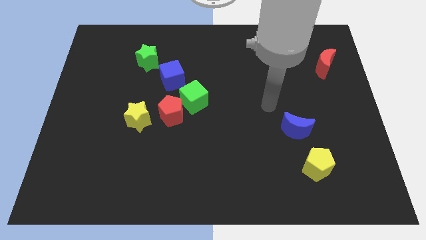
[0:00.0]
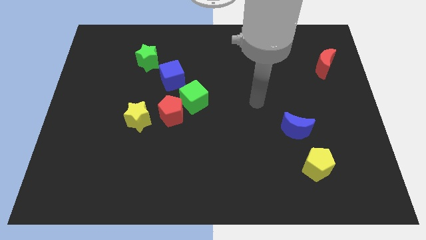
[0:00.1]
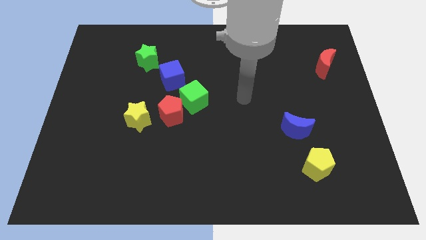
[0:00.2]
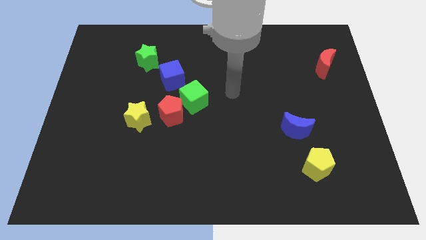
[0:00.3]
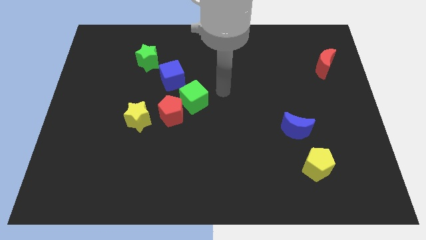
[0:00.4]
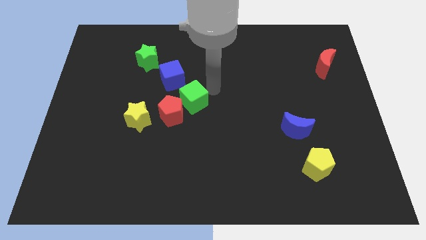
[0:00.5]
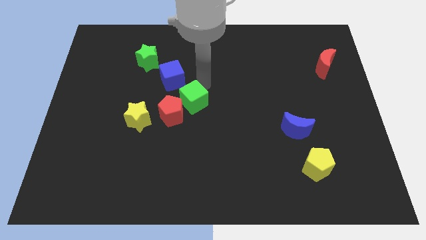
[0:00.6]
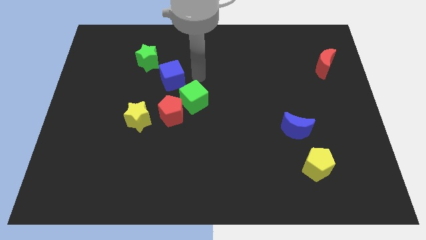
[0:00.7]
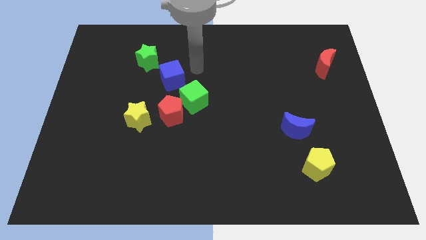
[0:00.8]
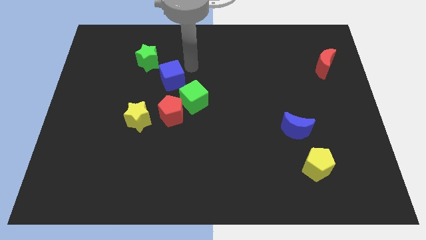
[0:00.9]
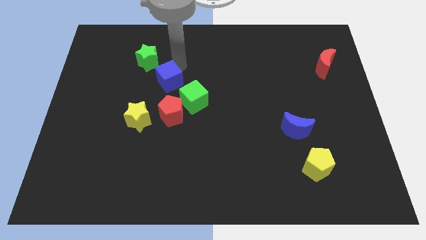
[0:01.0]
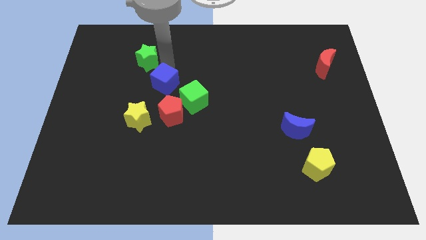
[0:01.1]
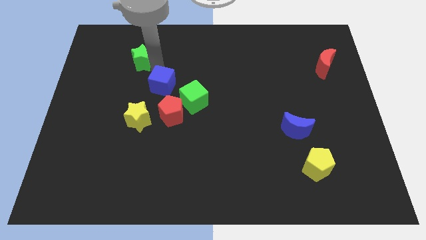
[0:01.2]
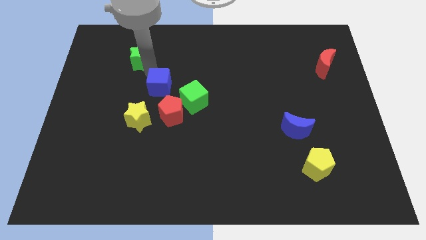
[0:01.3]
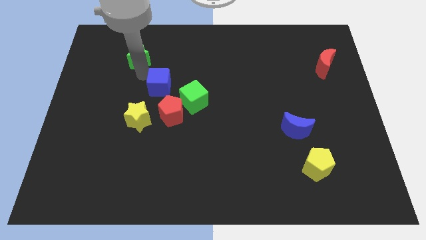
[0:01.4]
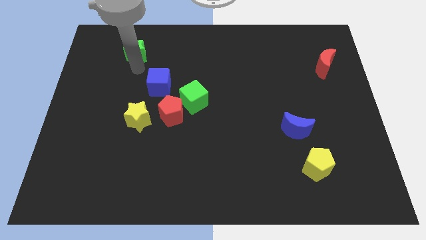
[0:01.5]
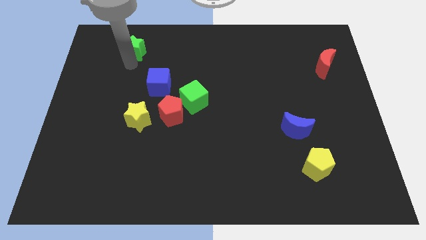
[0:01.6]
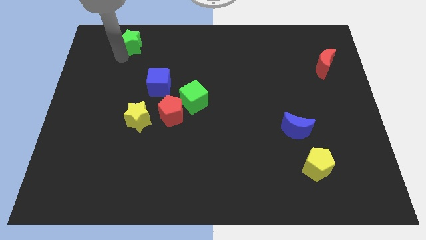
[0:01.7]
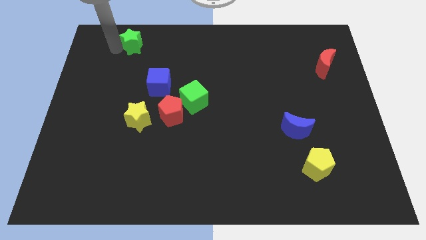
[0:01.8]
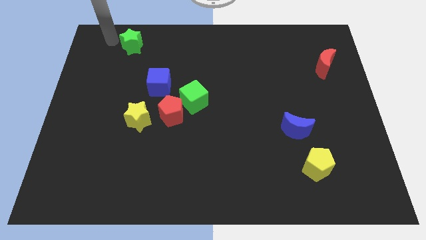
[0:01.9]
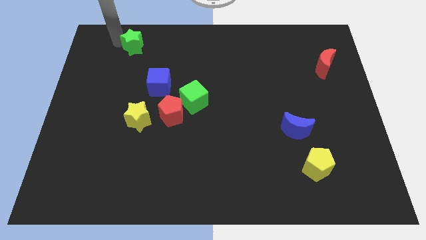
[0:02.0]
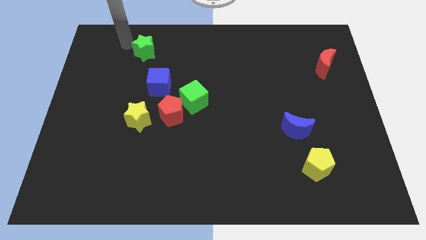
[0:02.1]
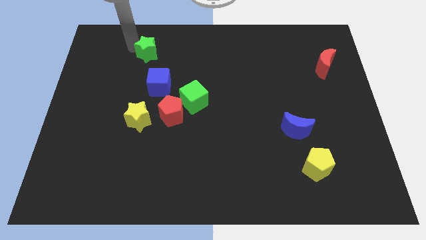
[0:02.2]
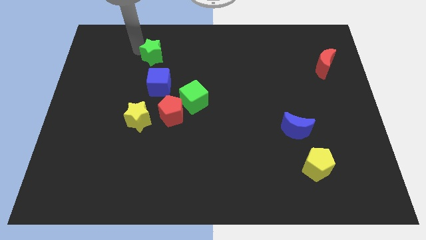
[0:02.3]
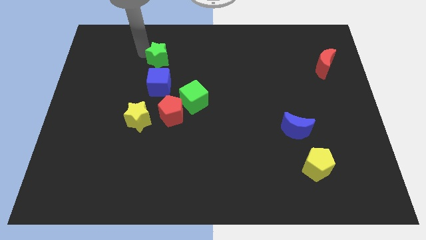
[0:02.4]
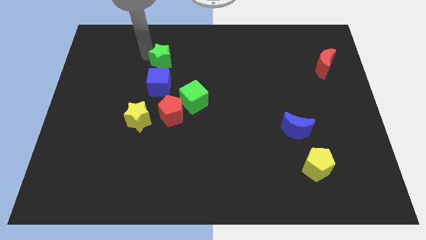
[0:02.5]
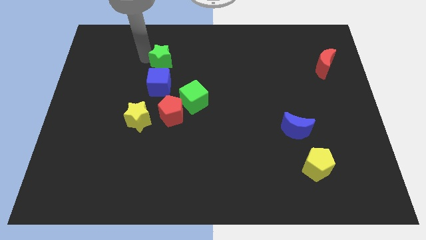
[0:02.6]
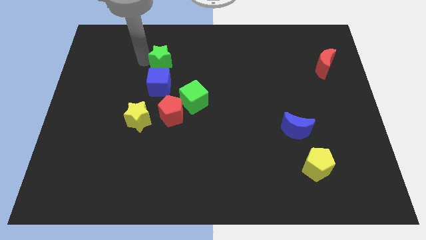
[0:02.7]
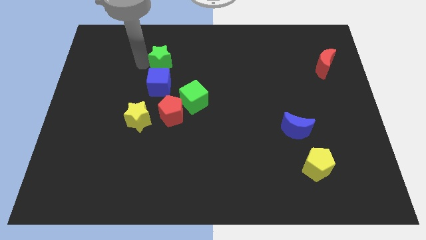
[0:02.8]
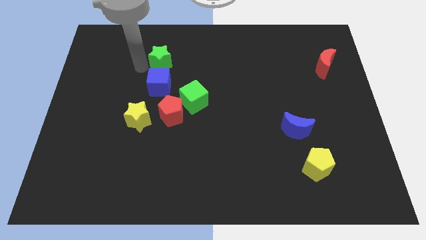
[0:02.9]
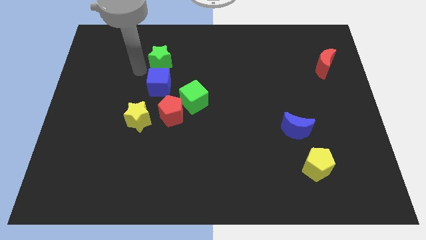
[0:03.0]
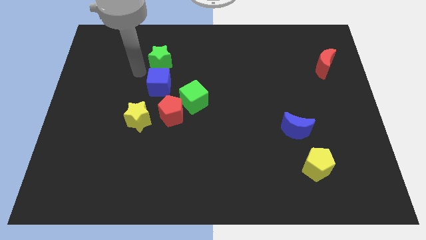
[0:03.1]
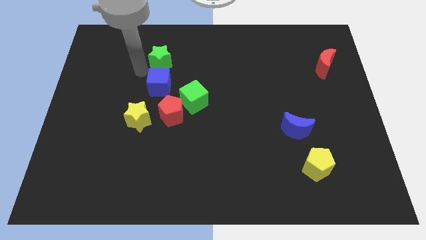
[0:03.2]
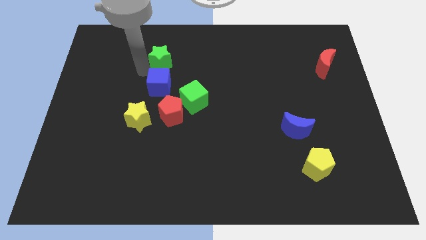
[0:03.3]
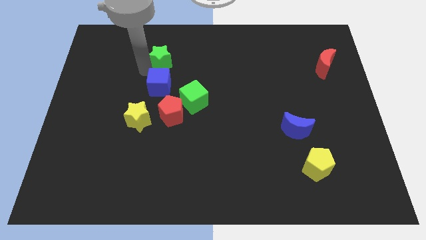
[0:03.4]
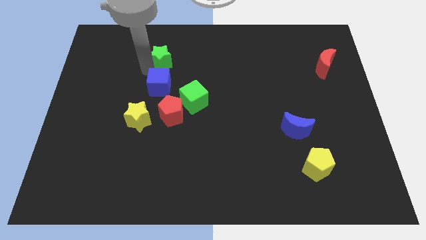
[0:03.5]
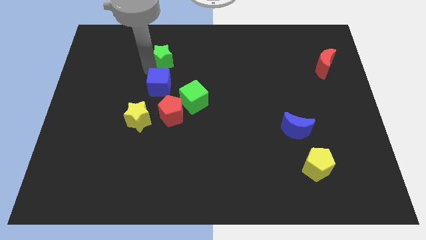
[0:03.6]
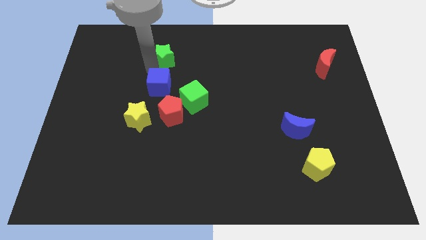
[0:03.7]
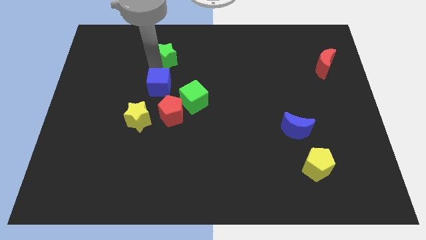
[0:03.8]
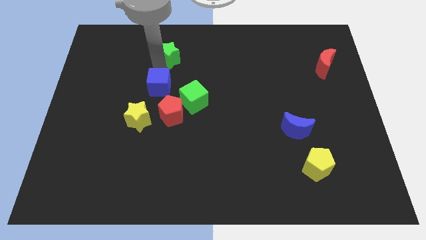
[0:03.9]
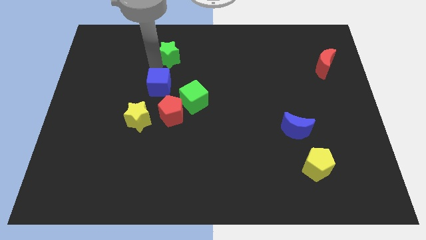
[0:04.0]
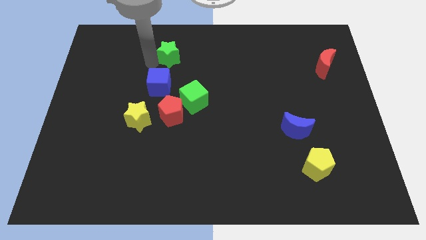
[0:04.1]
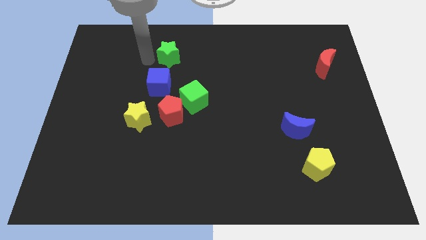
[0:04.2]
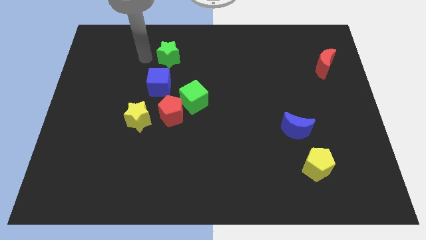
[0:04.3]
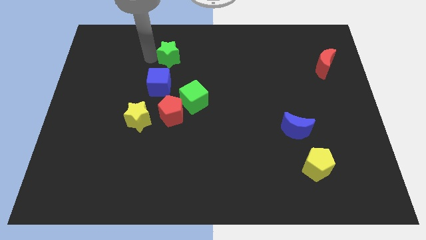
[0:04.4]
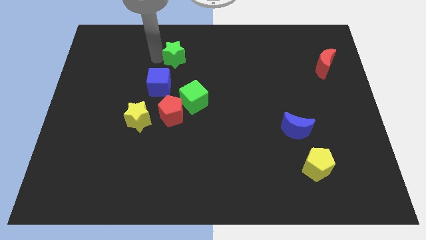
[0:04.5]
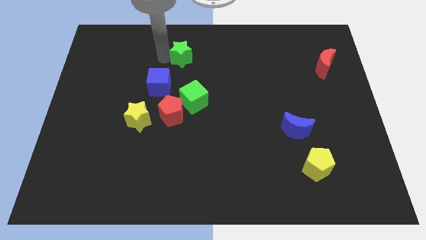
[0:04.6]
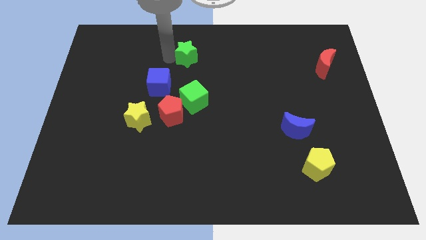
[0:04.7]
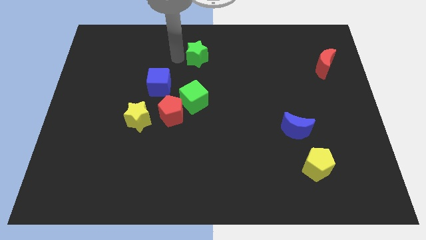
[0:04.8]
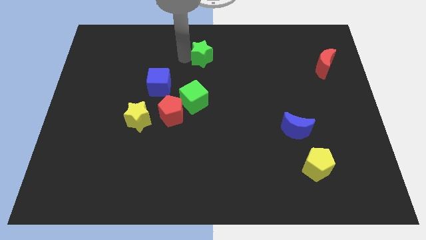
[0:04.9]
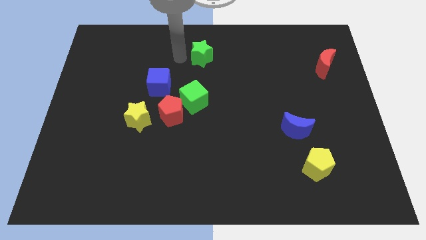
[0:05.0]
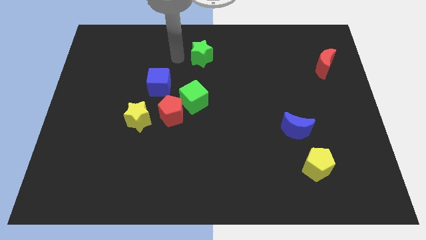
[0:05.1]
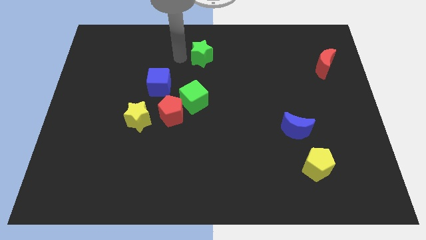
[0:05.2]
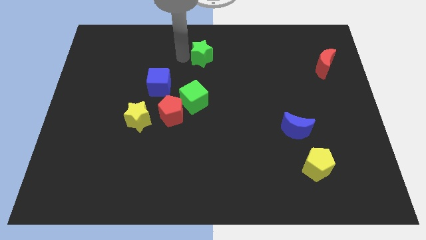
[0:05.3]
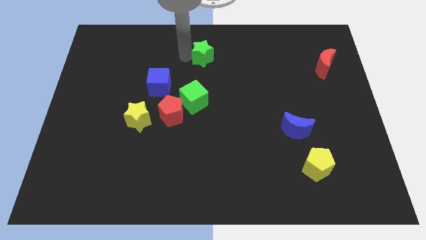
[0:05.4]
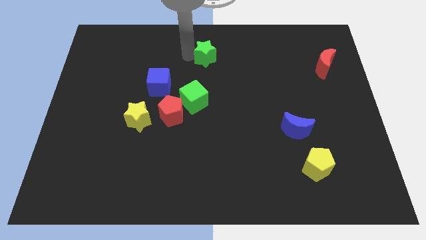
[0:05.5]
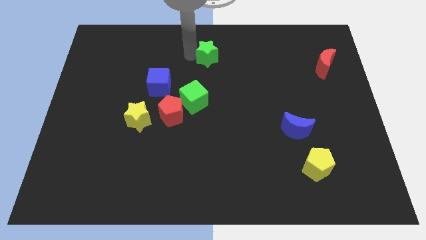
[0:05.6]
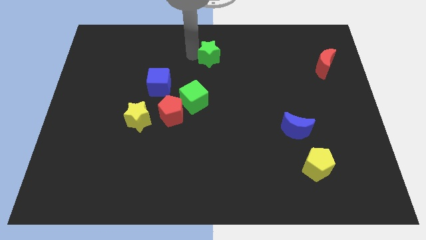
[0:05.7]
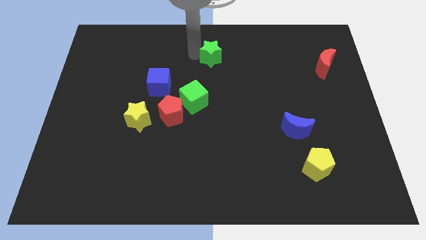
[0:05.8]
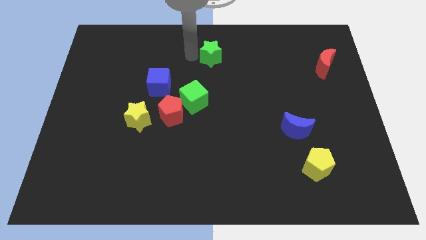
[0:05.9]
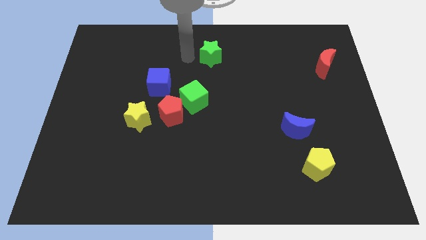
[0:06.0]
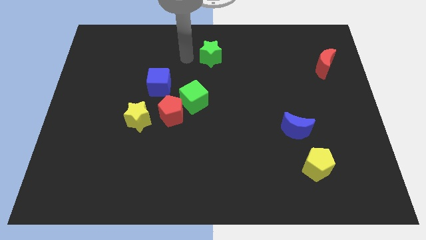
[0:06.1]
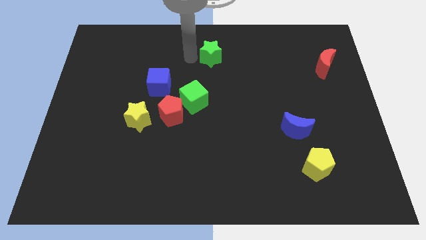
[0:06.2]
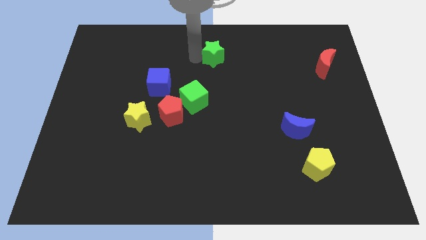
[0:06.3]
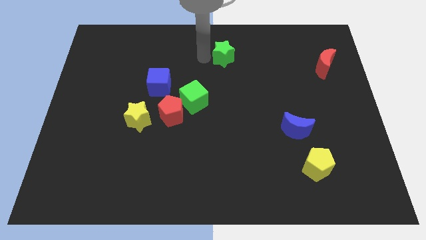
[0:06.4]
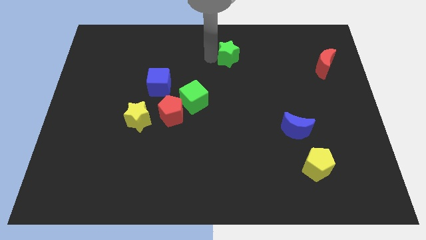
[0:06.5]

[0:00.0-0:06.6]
slide the green star right

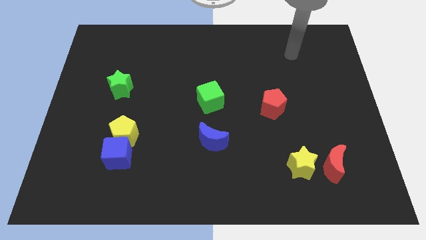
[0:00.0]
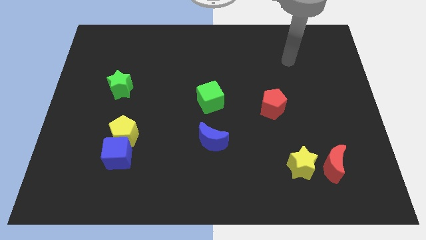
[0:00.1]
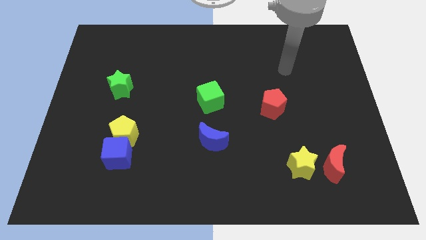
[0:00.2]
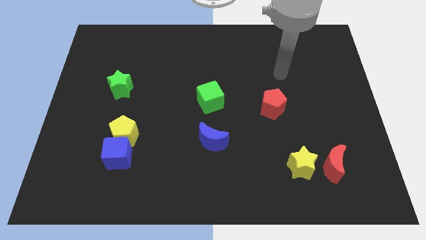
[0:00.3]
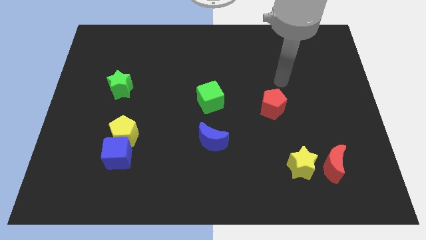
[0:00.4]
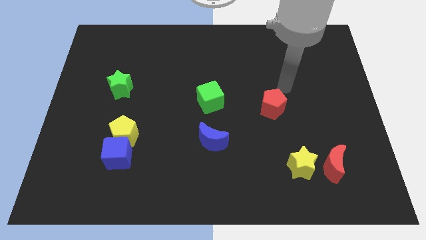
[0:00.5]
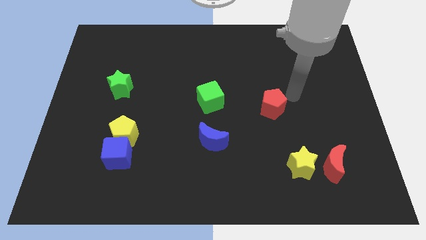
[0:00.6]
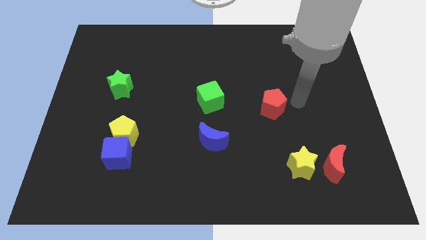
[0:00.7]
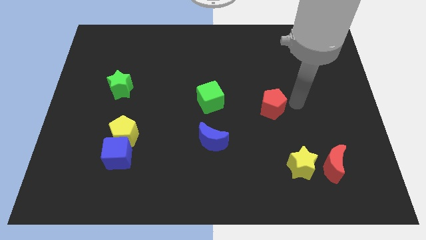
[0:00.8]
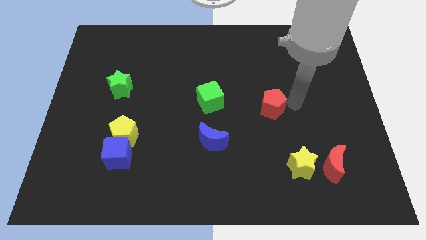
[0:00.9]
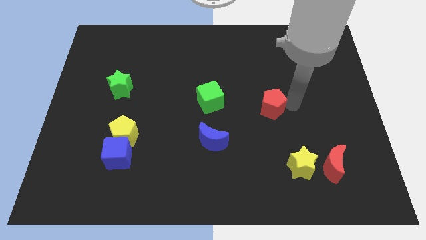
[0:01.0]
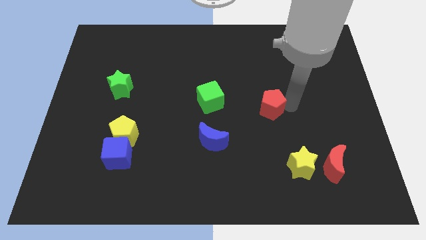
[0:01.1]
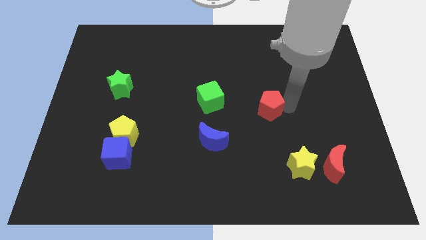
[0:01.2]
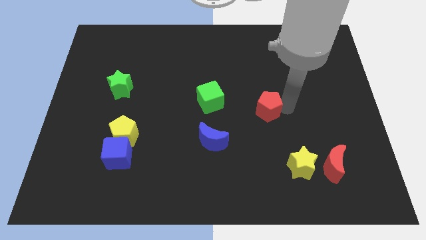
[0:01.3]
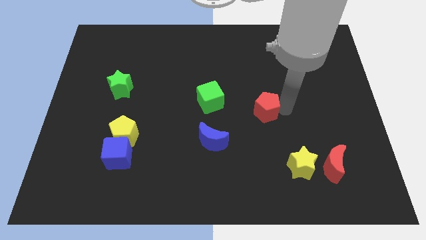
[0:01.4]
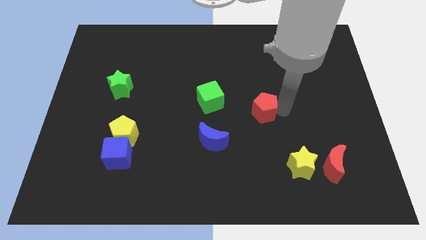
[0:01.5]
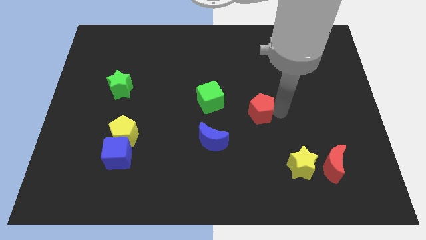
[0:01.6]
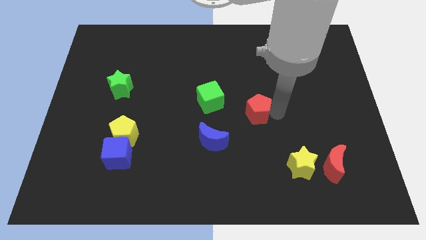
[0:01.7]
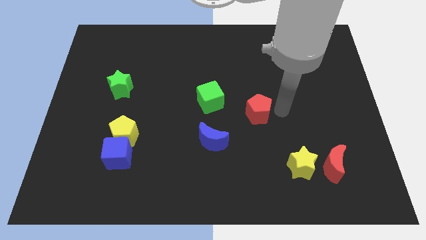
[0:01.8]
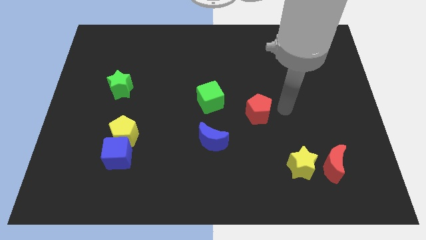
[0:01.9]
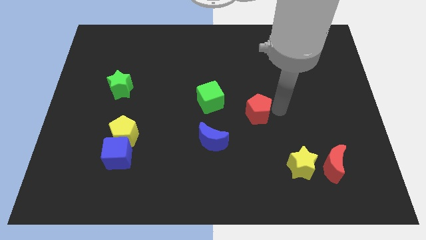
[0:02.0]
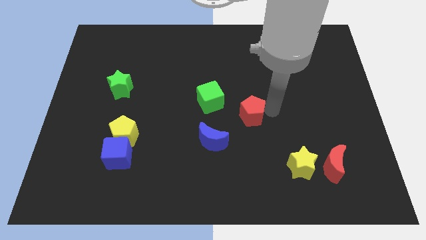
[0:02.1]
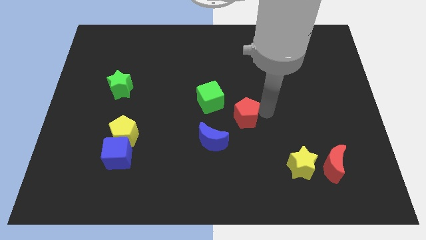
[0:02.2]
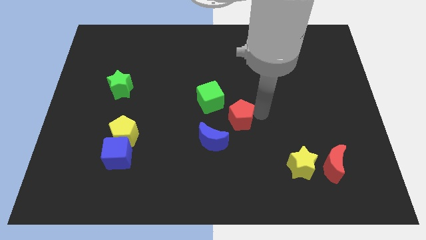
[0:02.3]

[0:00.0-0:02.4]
move the red pentagon left slightly
